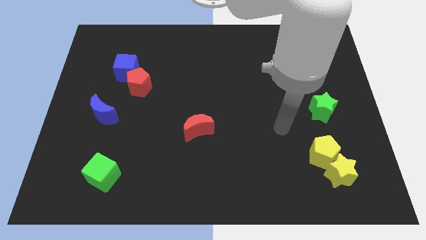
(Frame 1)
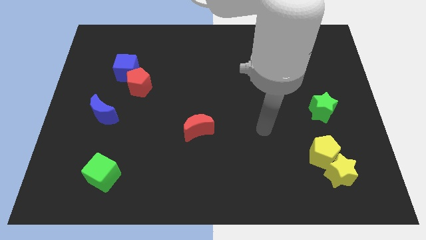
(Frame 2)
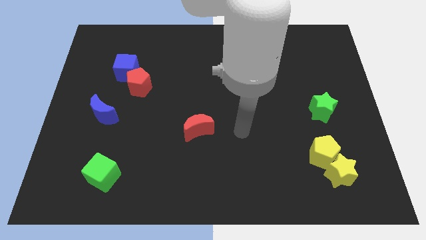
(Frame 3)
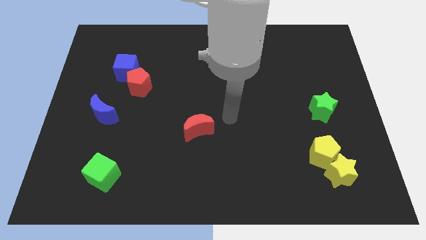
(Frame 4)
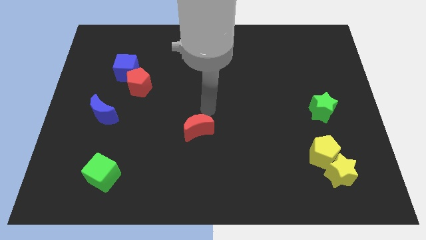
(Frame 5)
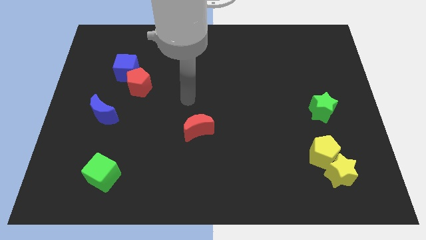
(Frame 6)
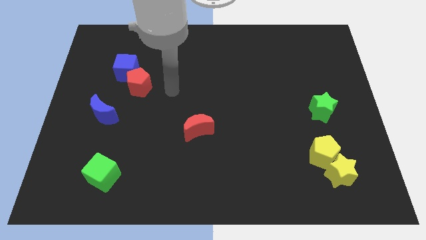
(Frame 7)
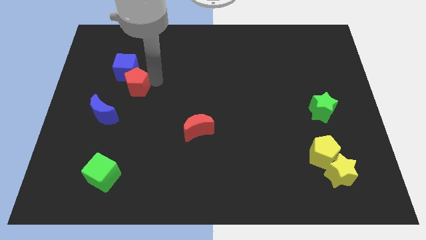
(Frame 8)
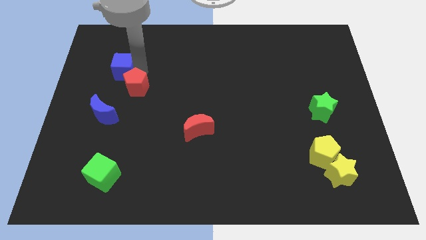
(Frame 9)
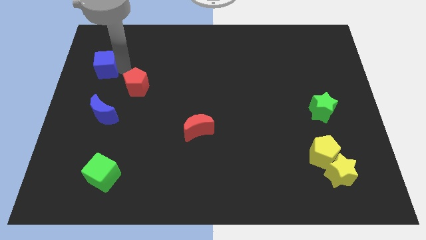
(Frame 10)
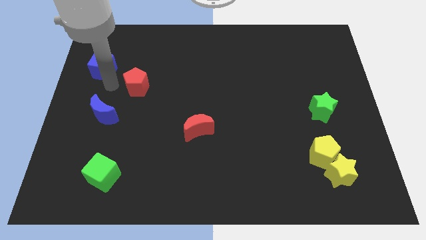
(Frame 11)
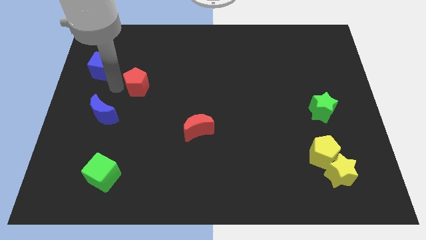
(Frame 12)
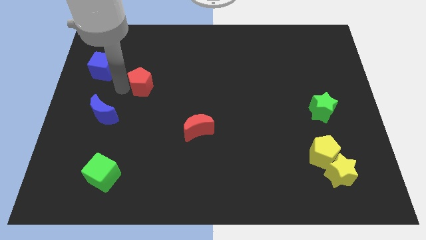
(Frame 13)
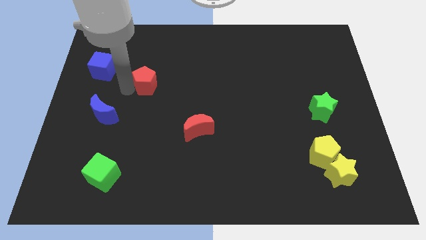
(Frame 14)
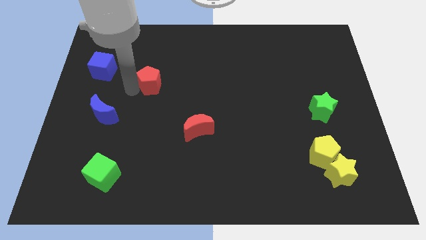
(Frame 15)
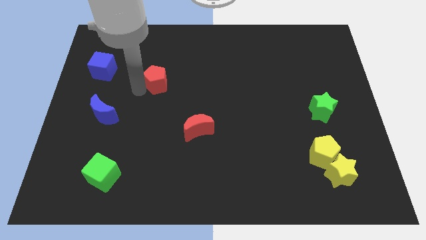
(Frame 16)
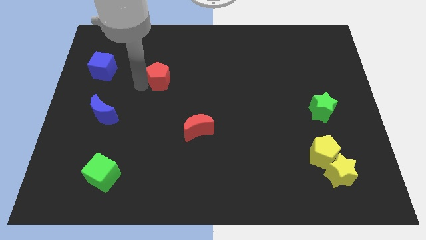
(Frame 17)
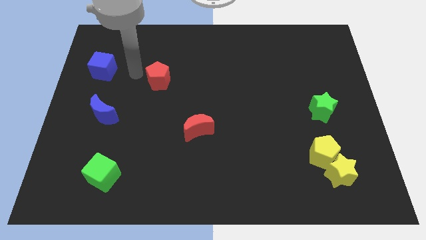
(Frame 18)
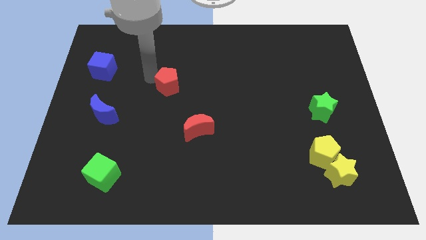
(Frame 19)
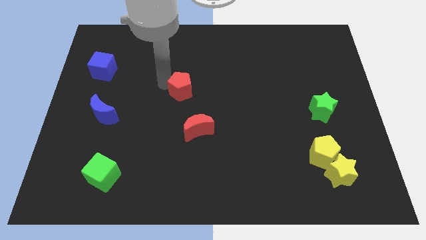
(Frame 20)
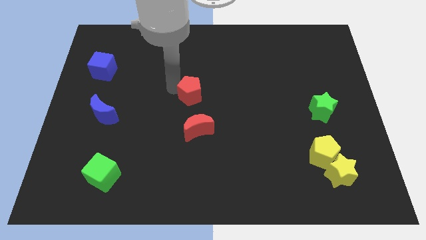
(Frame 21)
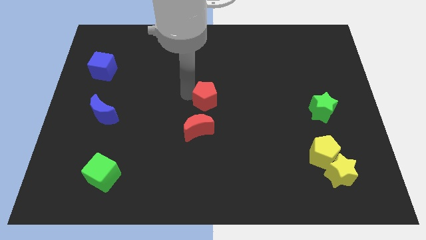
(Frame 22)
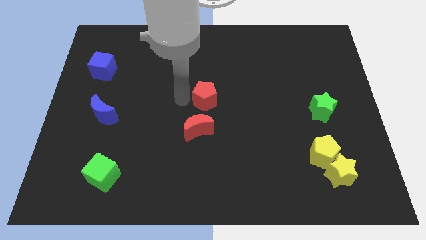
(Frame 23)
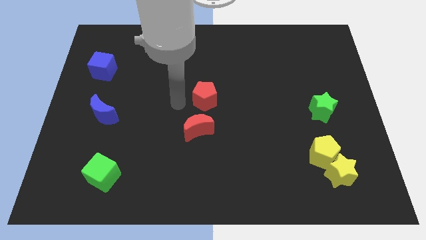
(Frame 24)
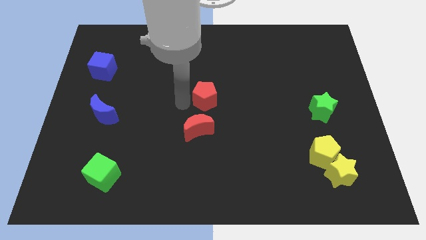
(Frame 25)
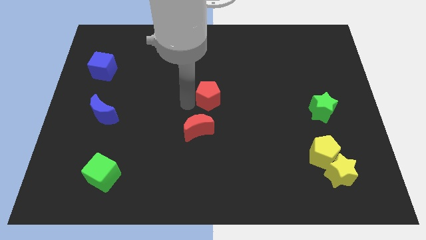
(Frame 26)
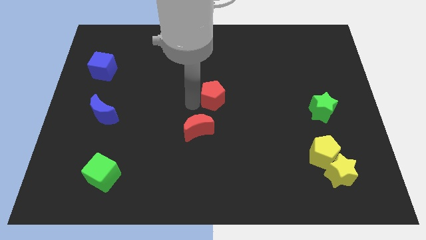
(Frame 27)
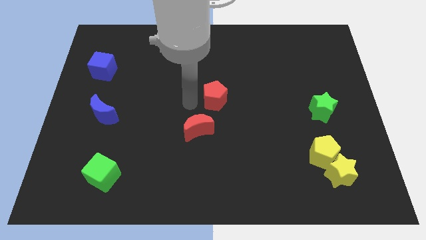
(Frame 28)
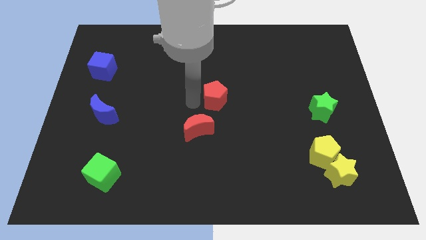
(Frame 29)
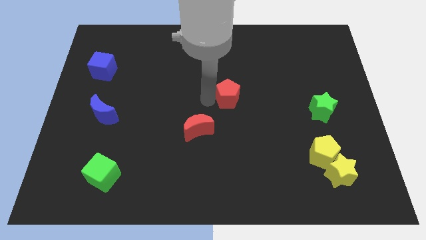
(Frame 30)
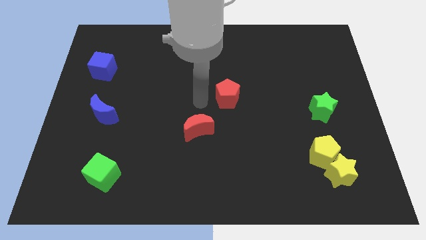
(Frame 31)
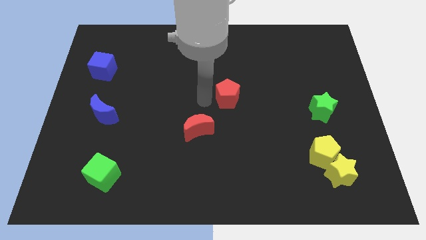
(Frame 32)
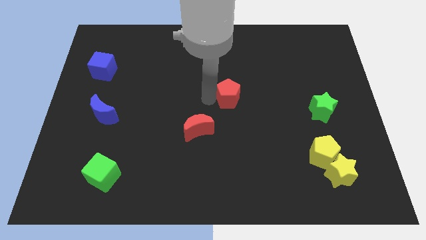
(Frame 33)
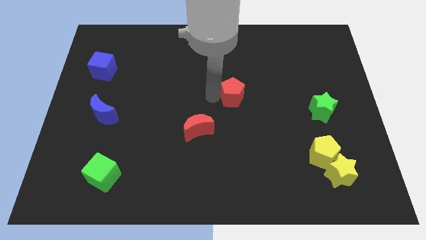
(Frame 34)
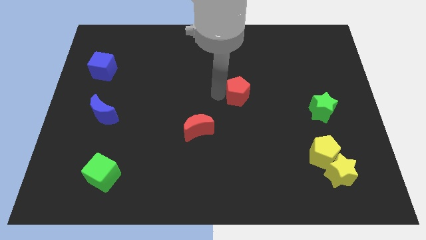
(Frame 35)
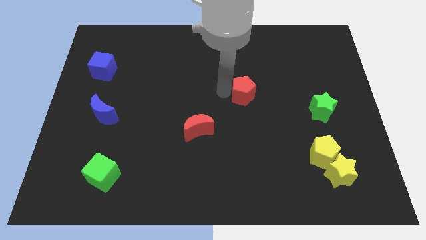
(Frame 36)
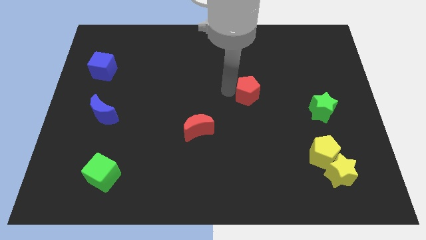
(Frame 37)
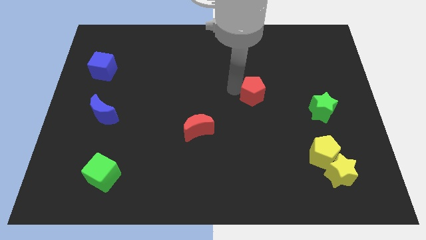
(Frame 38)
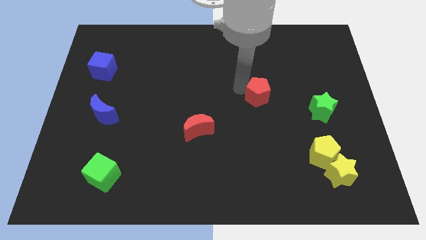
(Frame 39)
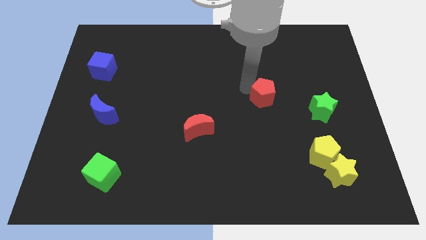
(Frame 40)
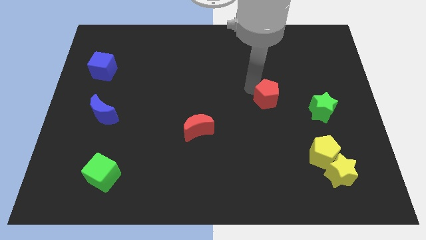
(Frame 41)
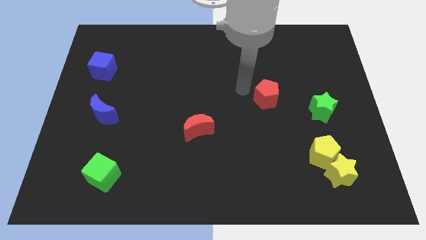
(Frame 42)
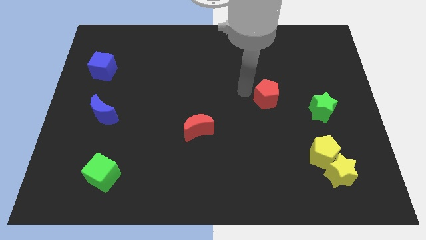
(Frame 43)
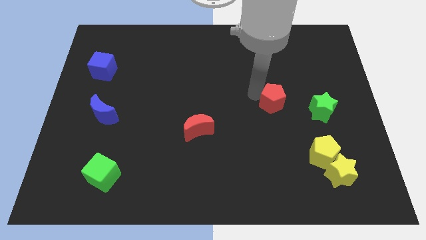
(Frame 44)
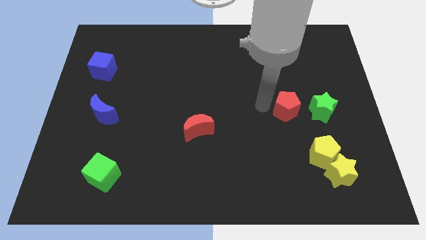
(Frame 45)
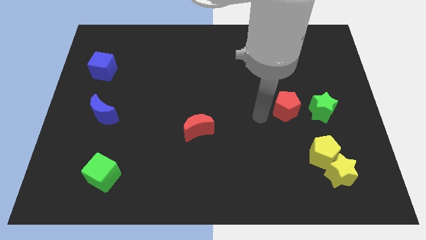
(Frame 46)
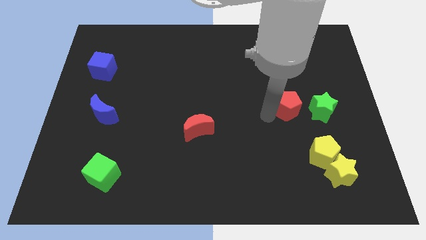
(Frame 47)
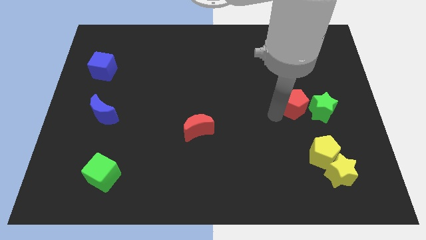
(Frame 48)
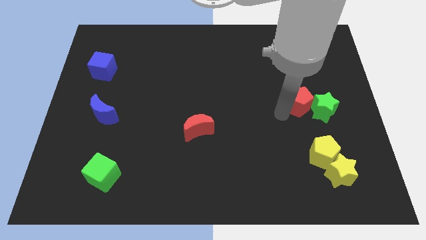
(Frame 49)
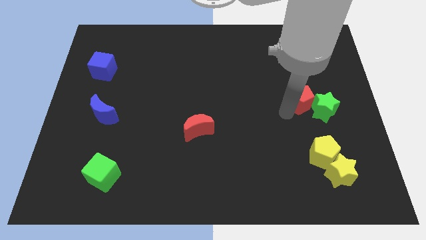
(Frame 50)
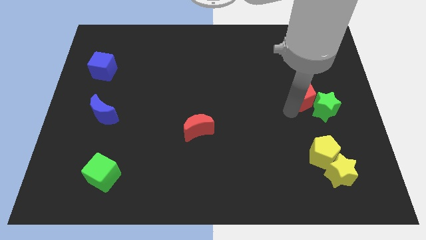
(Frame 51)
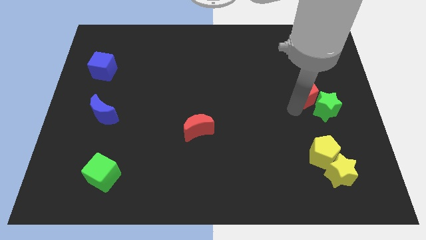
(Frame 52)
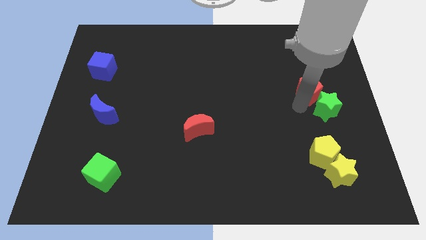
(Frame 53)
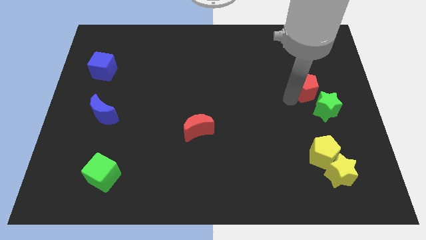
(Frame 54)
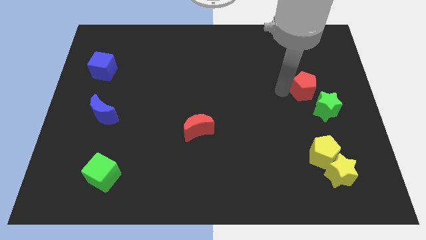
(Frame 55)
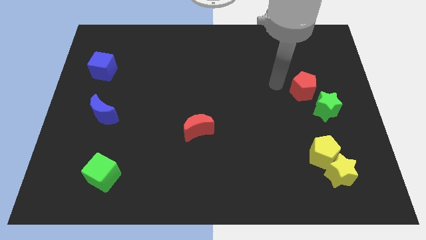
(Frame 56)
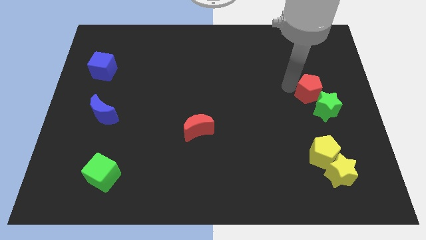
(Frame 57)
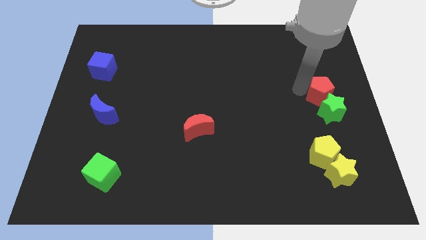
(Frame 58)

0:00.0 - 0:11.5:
slide the red pentagon to the right side of the board

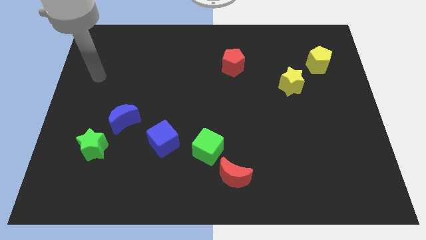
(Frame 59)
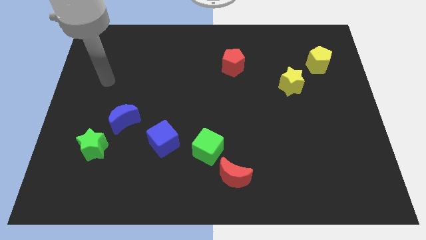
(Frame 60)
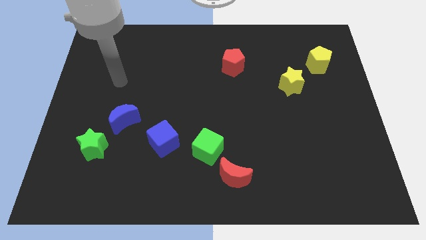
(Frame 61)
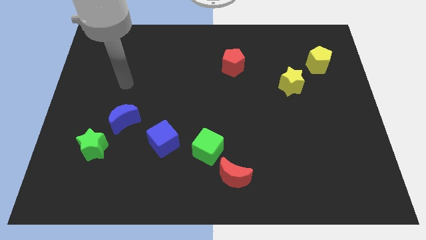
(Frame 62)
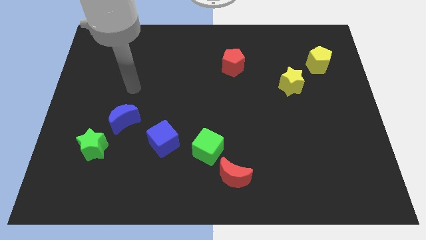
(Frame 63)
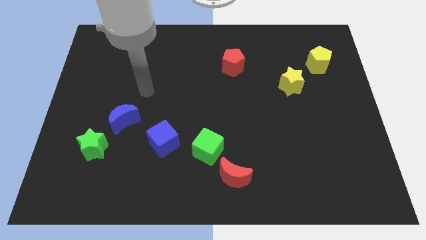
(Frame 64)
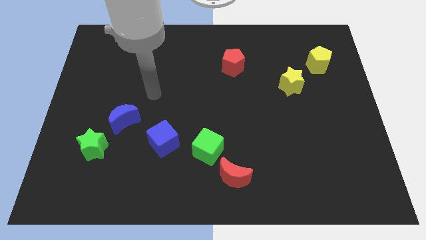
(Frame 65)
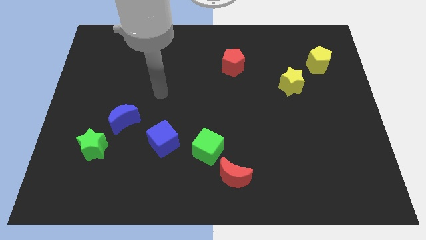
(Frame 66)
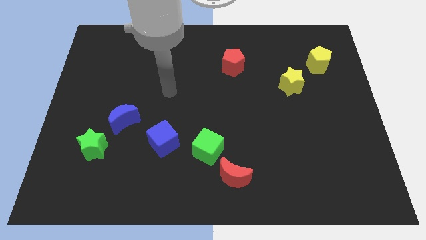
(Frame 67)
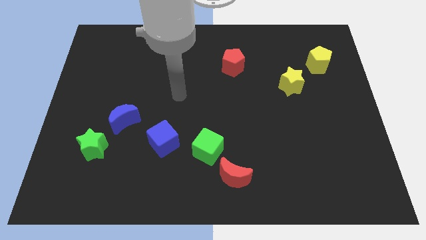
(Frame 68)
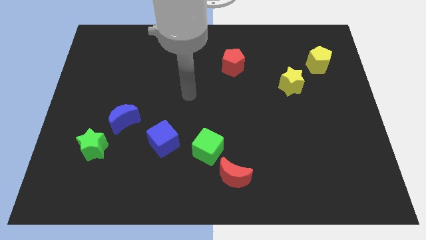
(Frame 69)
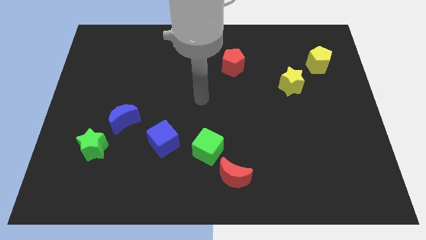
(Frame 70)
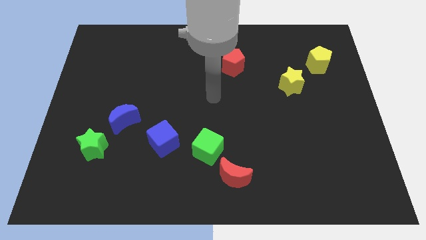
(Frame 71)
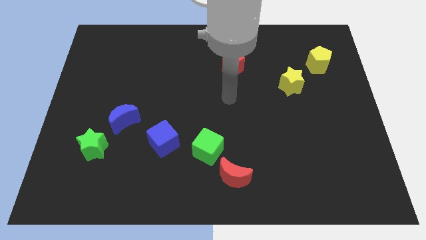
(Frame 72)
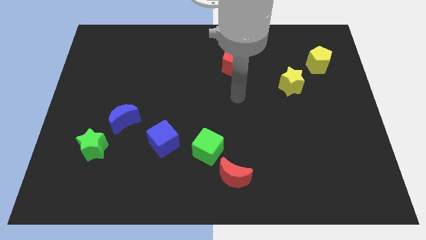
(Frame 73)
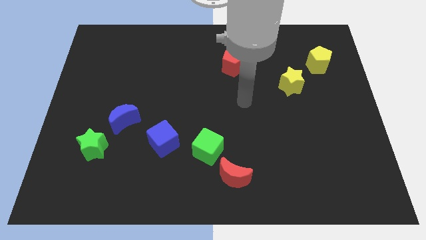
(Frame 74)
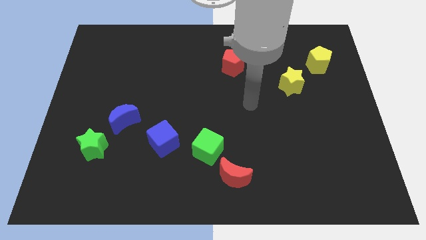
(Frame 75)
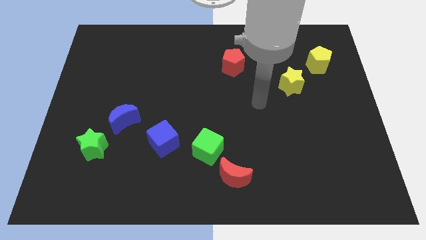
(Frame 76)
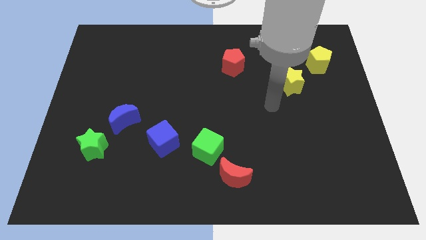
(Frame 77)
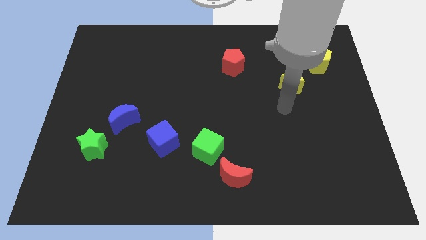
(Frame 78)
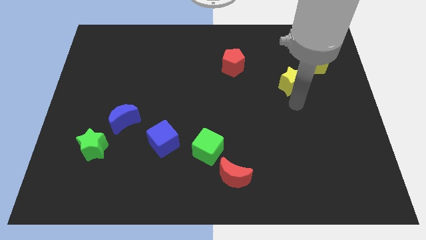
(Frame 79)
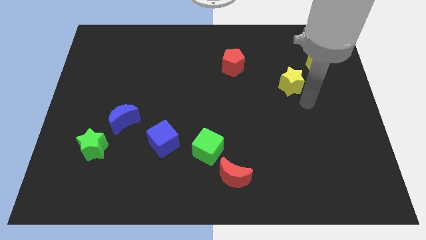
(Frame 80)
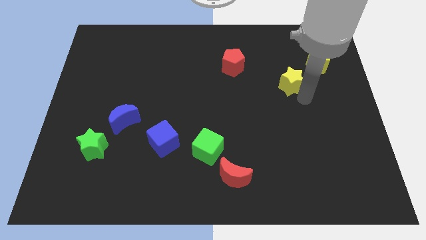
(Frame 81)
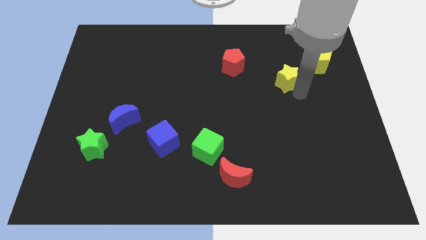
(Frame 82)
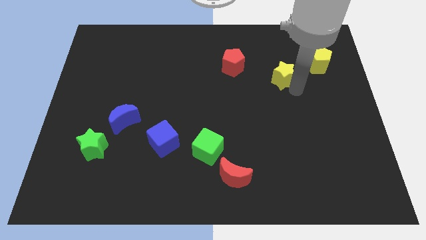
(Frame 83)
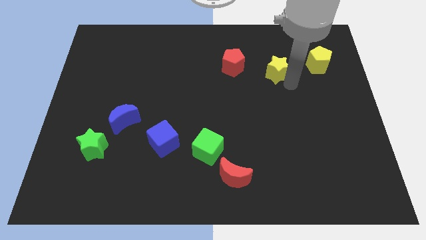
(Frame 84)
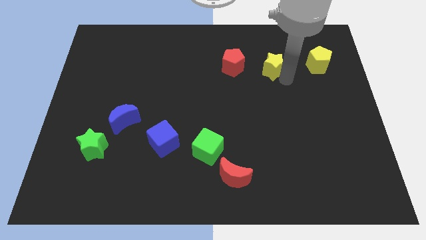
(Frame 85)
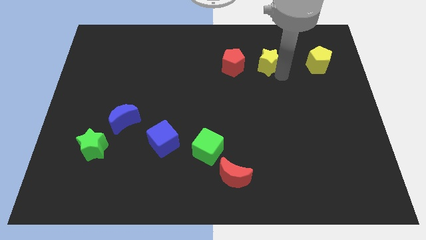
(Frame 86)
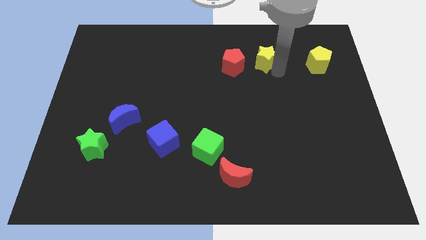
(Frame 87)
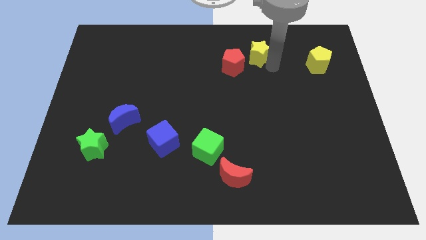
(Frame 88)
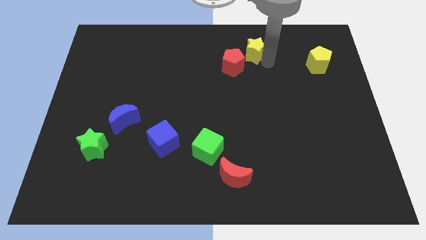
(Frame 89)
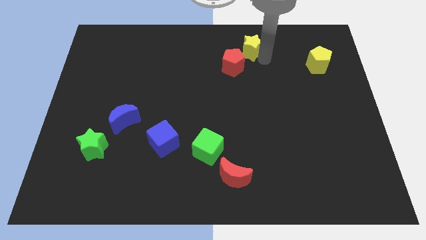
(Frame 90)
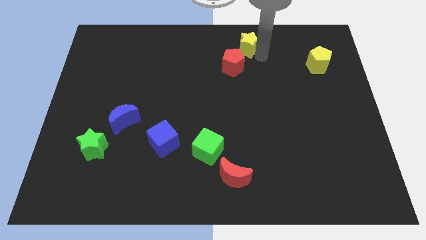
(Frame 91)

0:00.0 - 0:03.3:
slide the yellow star to the top side
